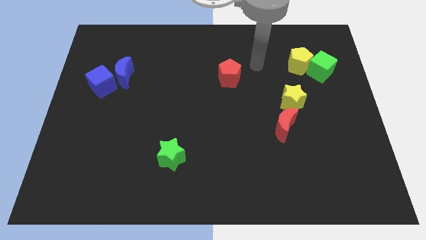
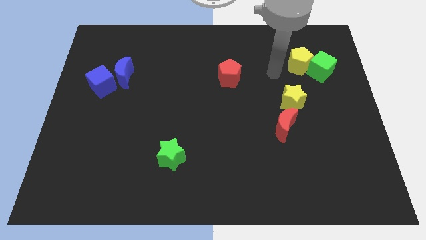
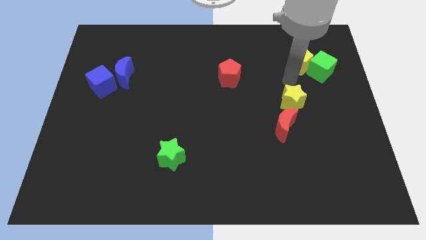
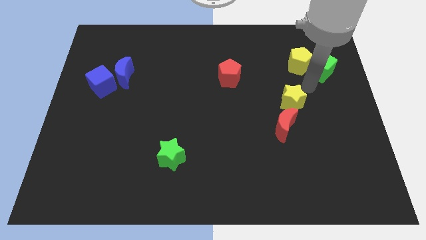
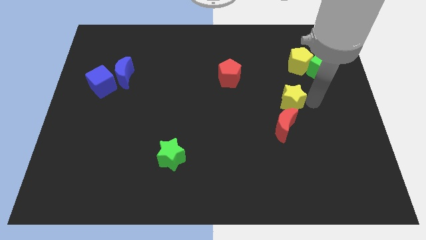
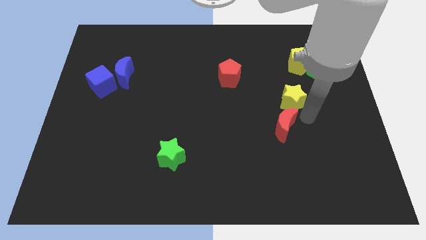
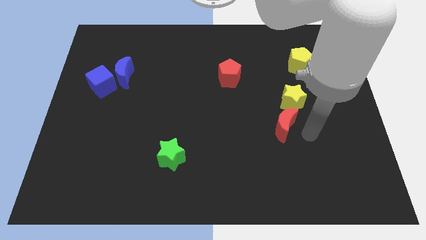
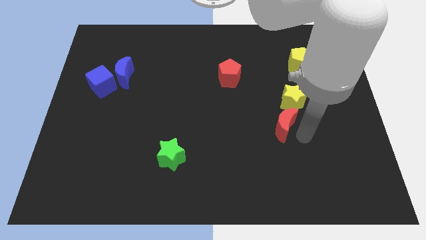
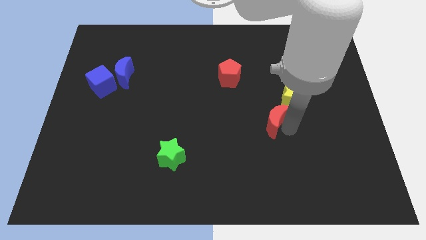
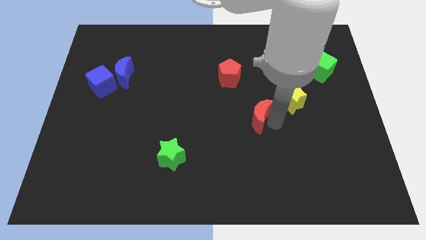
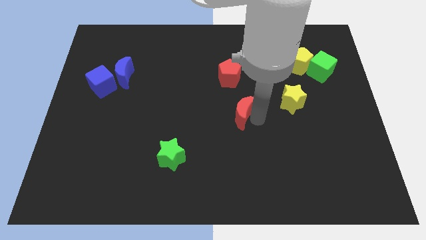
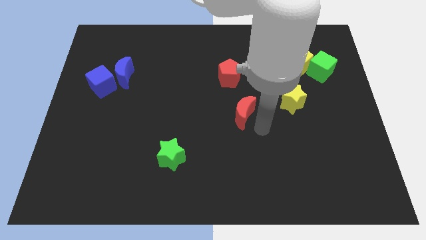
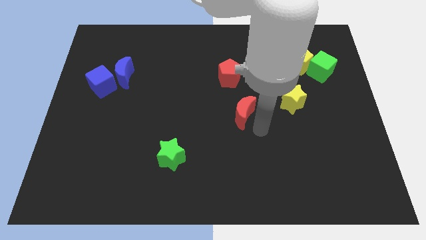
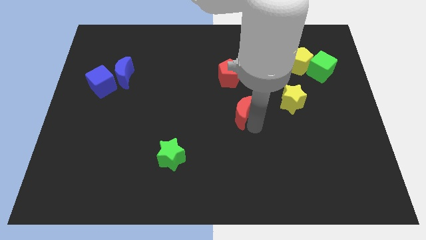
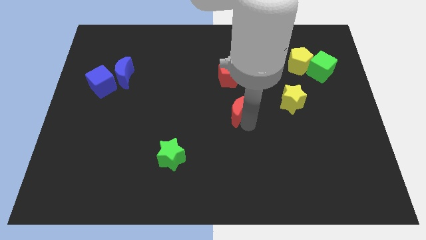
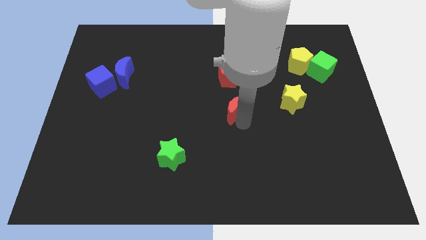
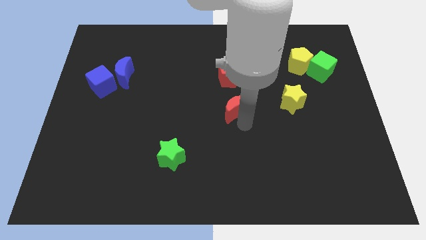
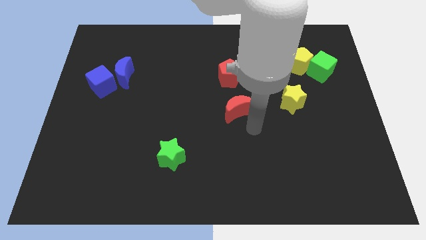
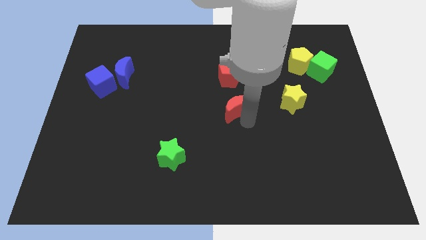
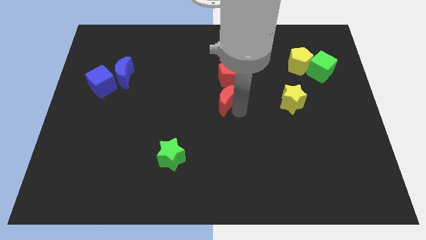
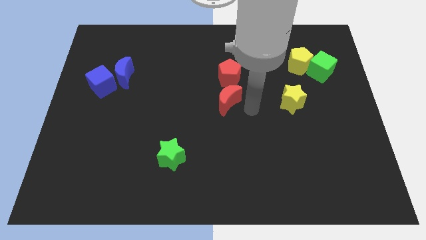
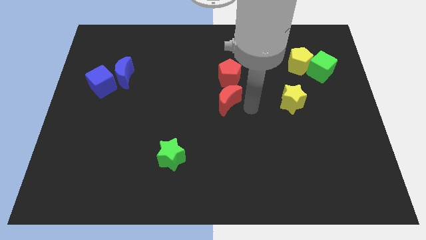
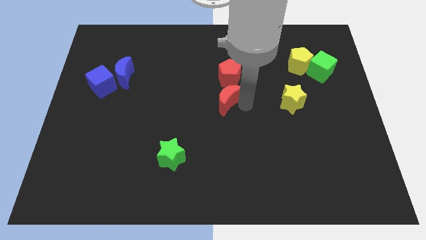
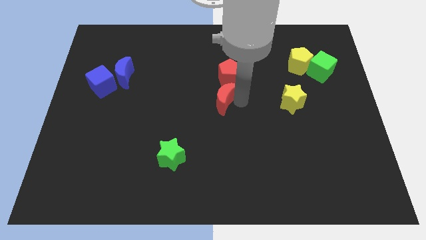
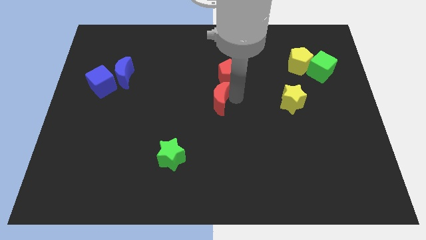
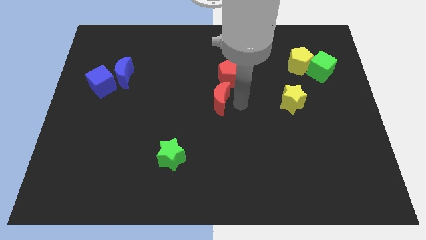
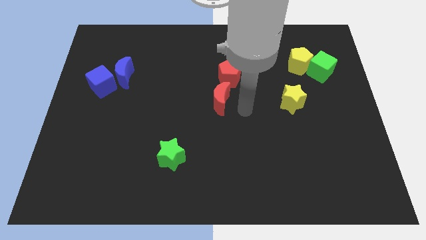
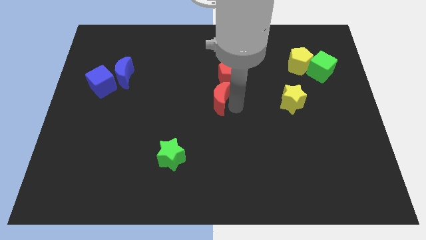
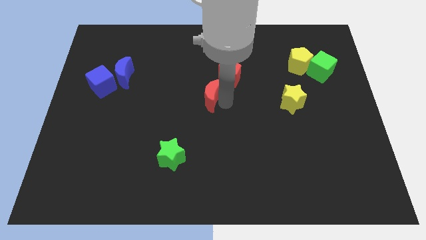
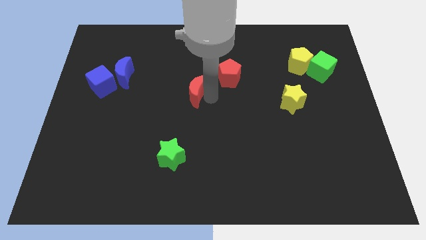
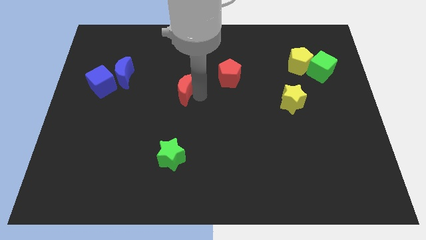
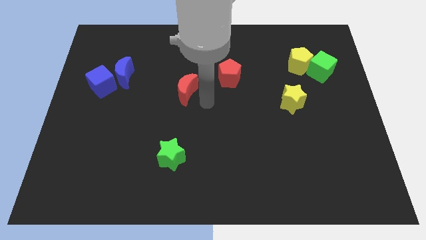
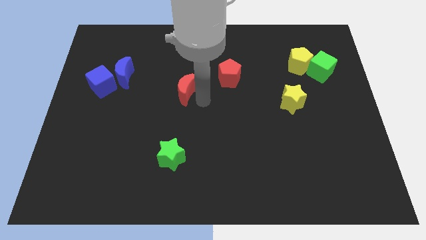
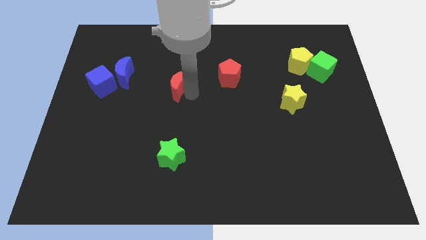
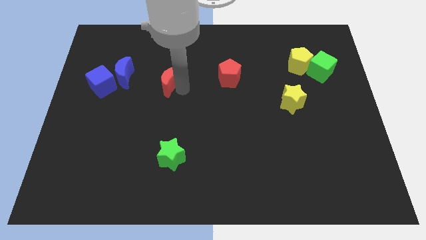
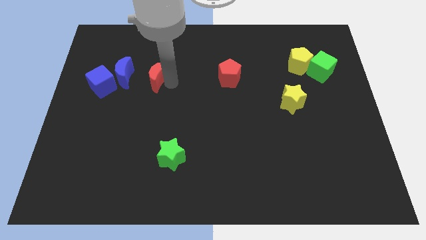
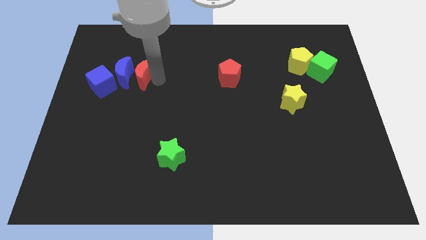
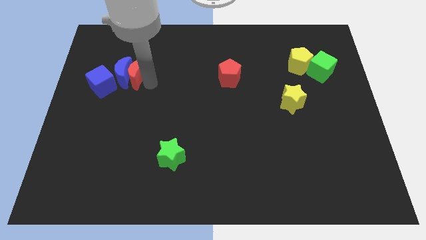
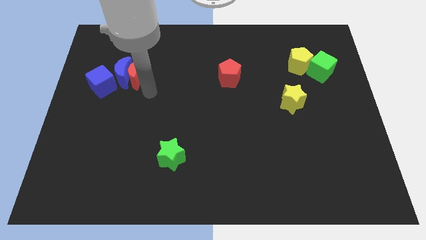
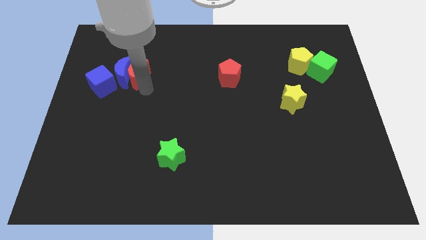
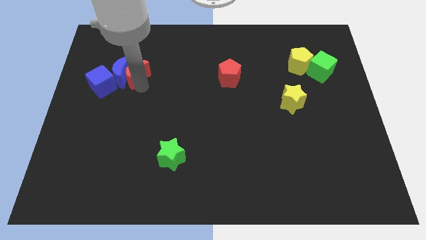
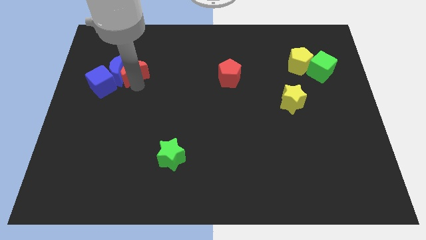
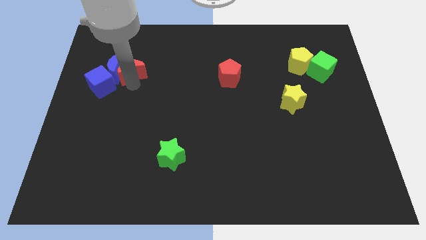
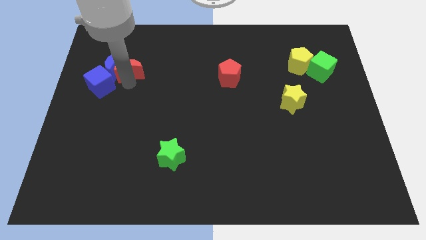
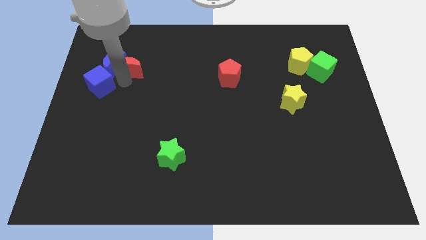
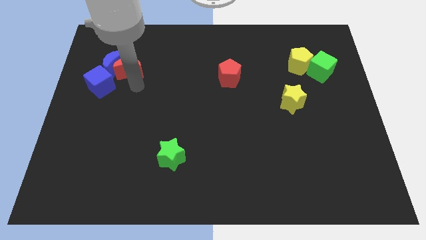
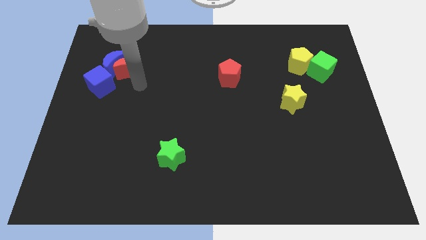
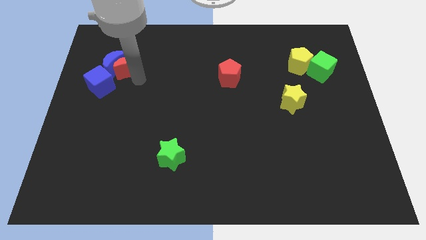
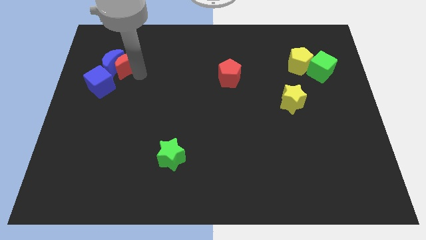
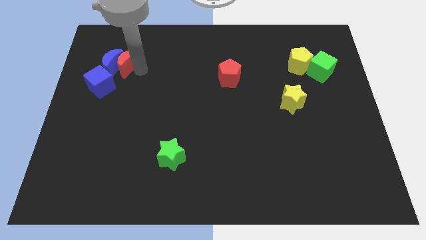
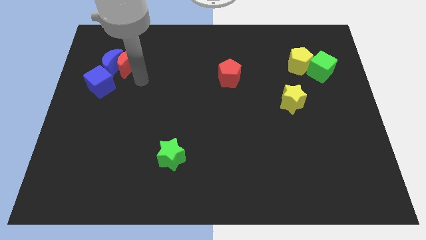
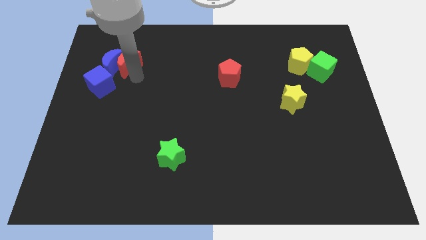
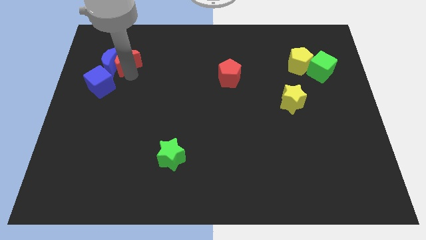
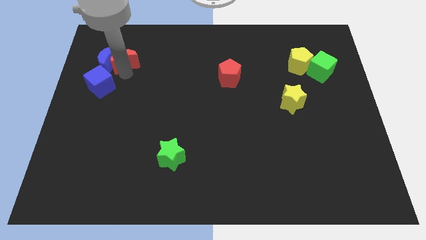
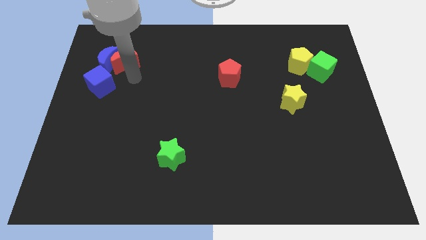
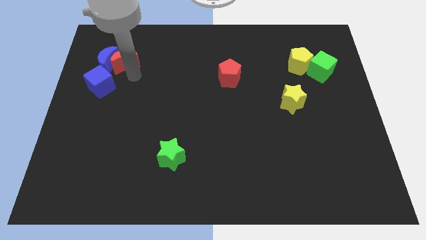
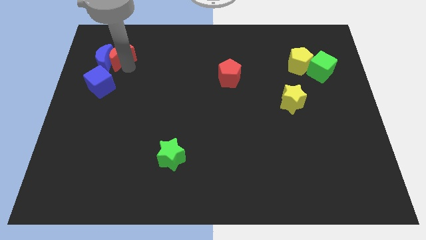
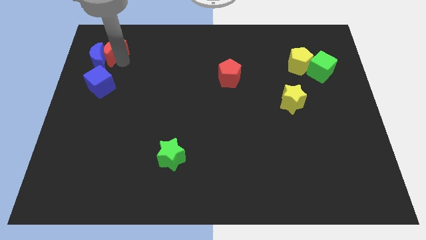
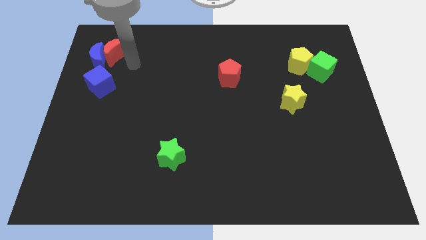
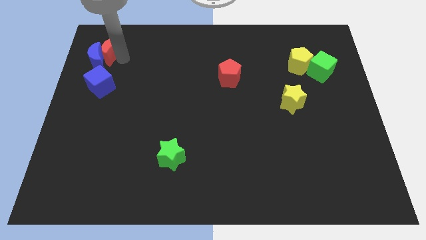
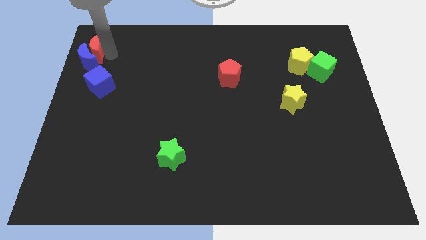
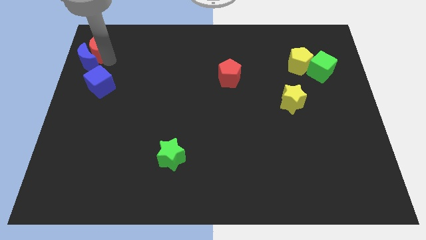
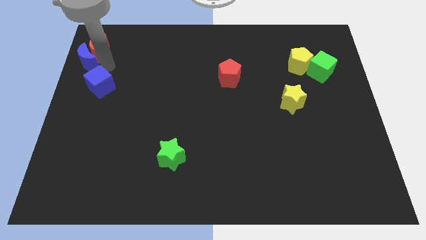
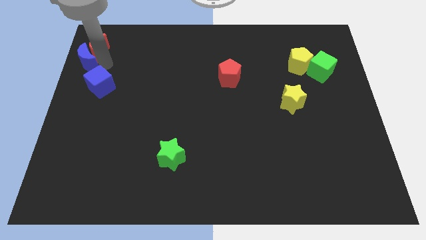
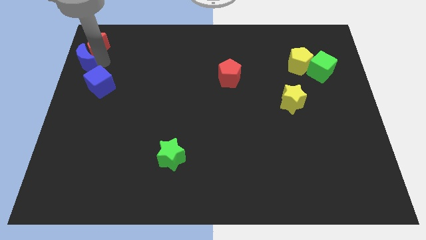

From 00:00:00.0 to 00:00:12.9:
slide the red moon to the top left

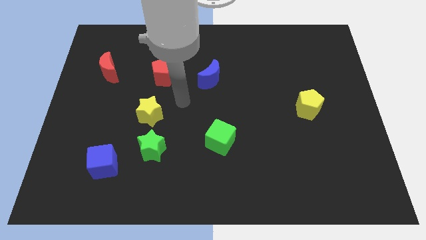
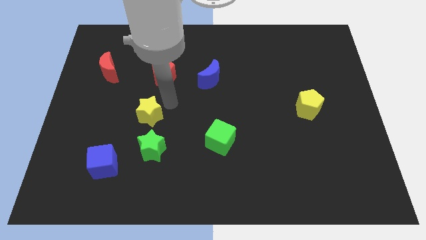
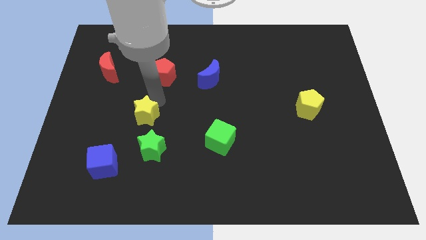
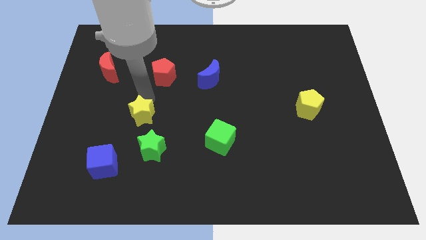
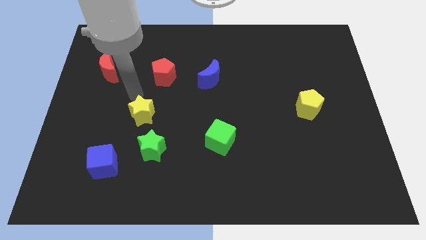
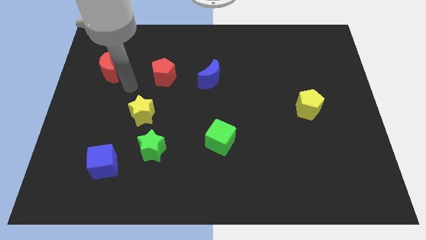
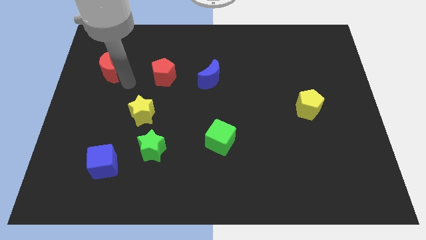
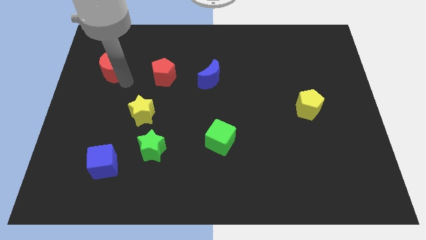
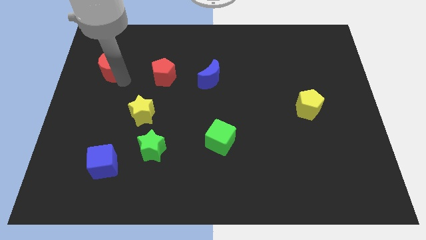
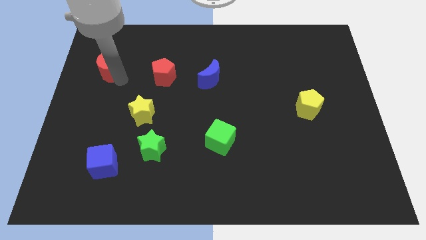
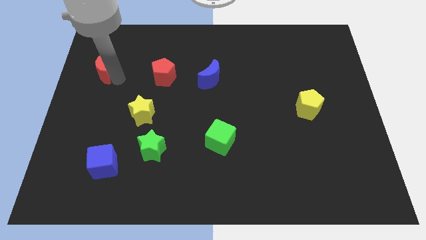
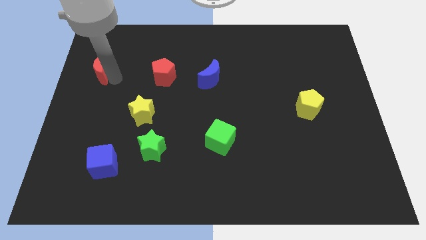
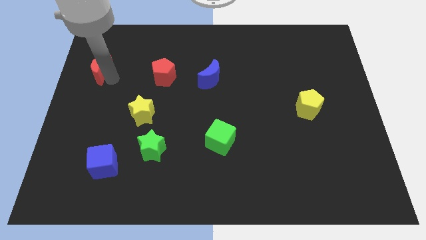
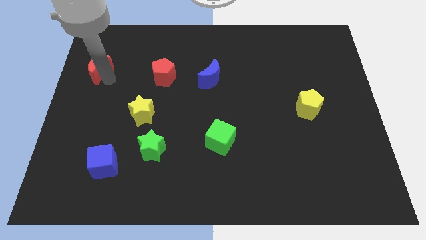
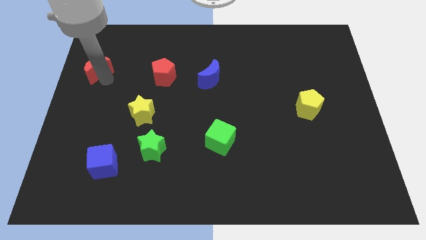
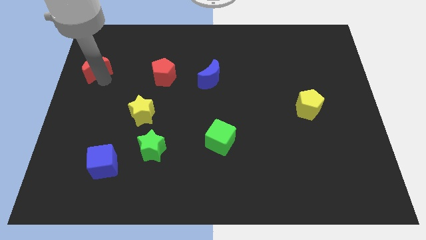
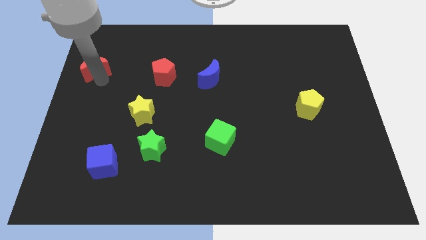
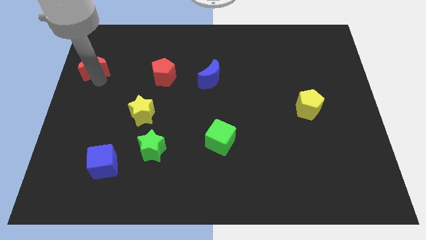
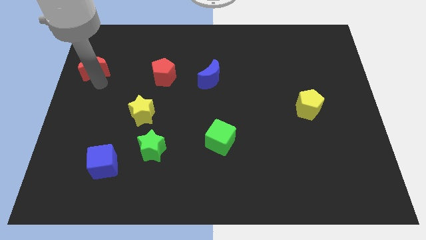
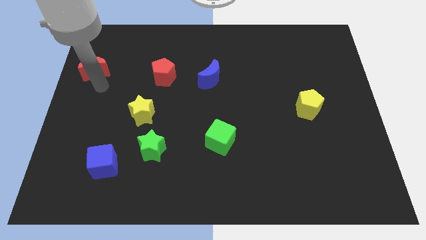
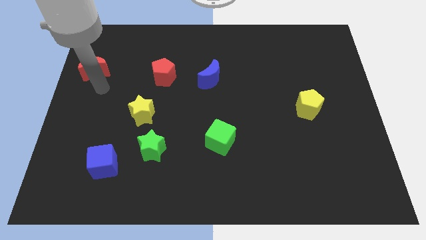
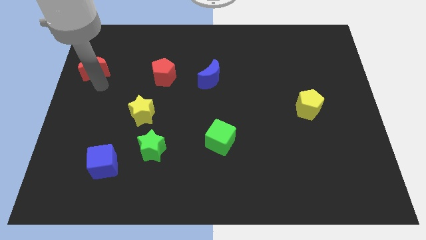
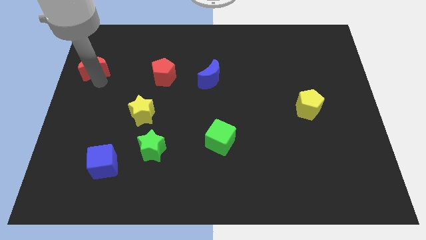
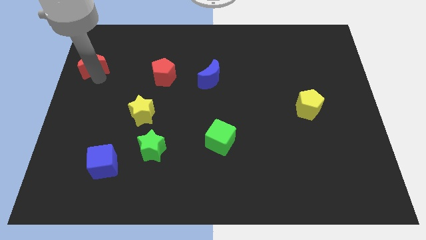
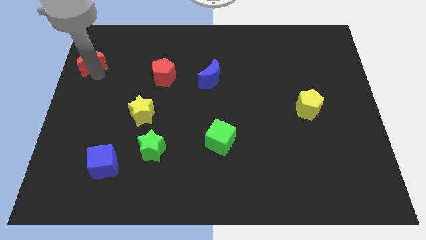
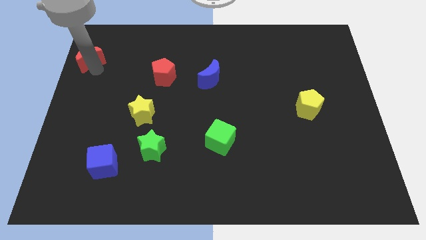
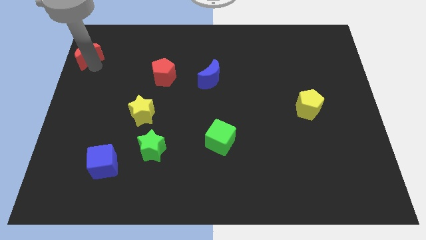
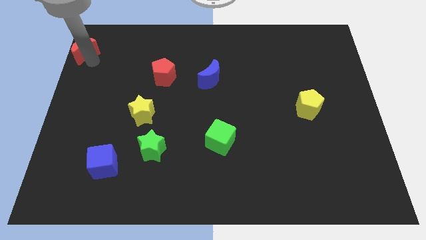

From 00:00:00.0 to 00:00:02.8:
put the red moon to the top left of the board
